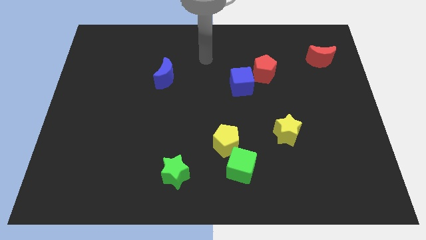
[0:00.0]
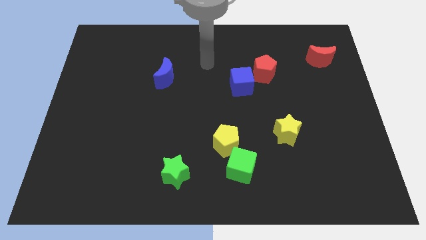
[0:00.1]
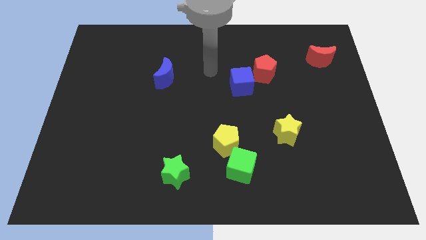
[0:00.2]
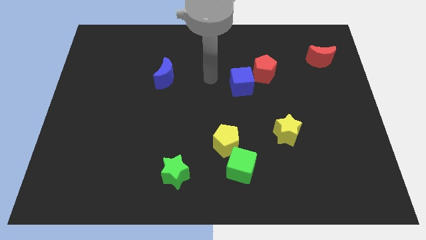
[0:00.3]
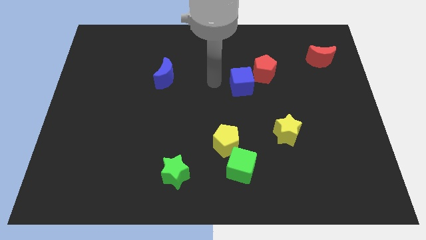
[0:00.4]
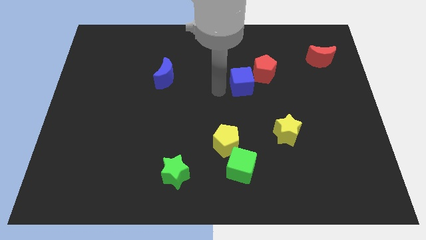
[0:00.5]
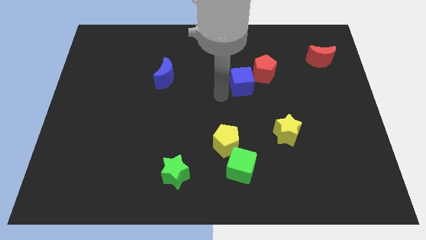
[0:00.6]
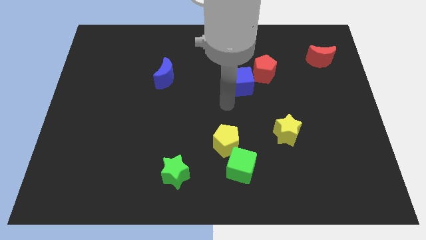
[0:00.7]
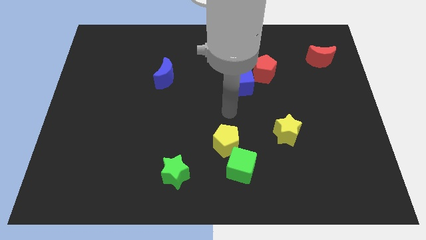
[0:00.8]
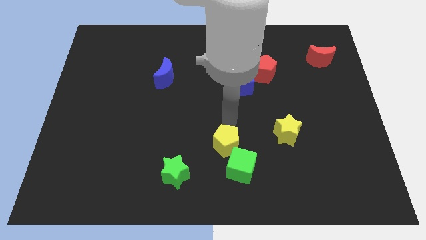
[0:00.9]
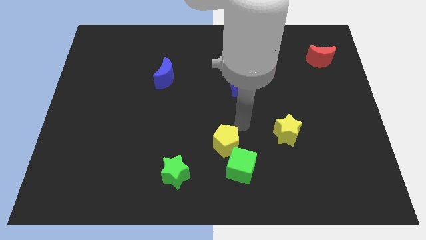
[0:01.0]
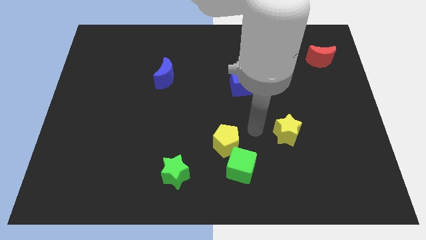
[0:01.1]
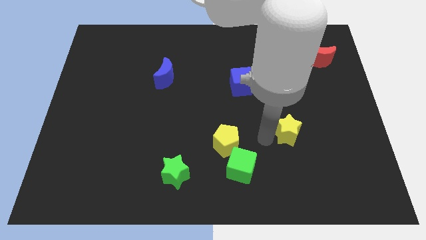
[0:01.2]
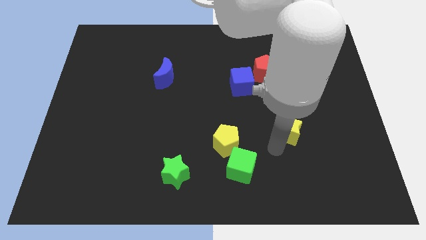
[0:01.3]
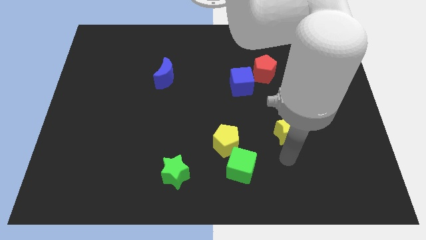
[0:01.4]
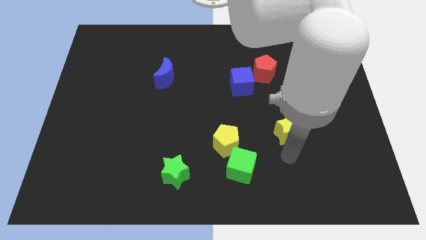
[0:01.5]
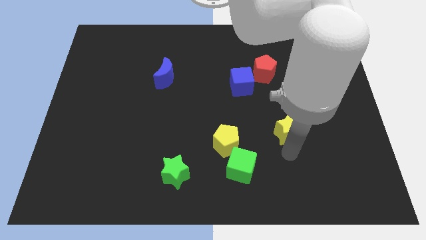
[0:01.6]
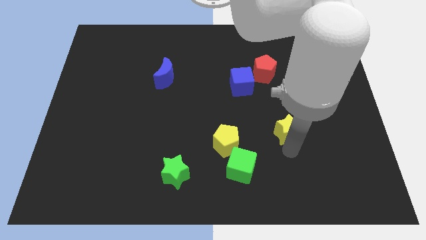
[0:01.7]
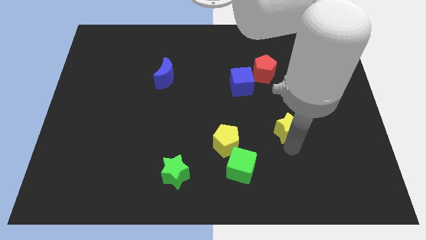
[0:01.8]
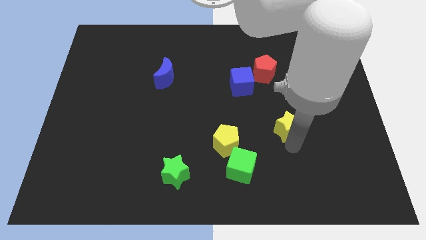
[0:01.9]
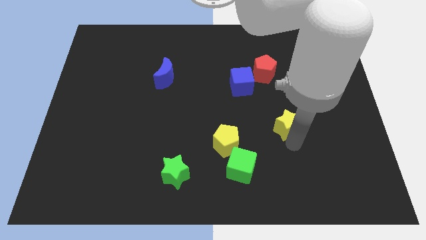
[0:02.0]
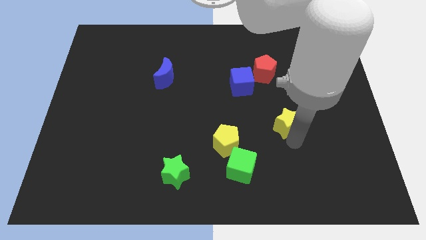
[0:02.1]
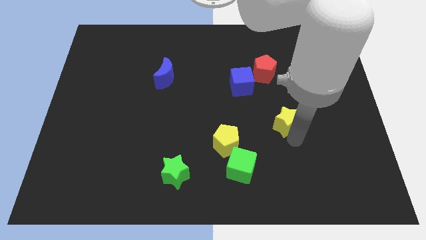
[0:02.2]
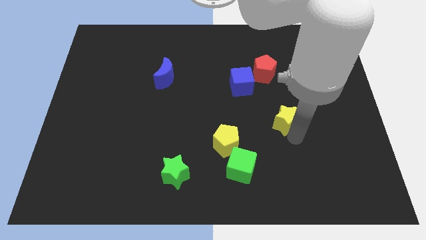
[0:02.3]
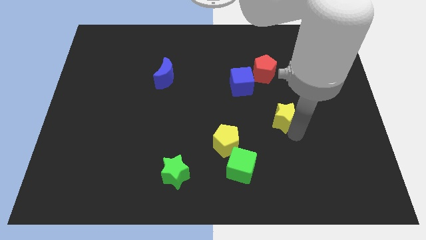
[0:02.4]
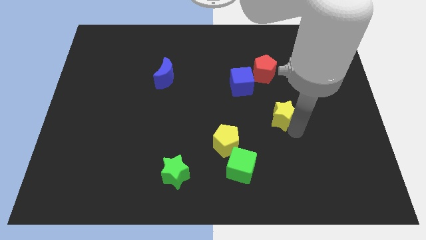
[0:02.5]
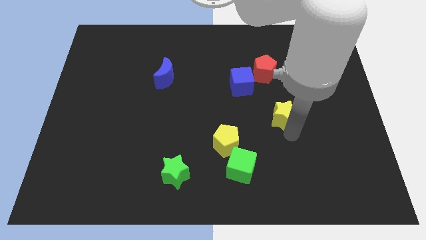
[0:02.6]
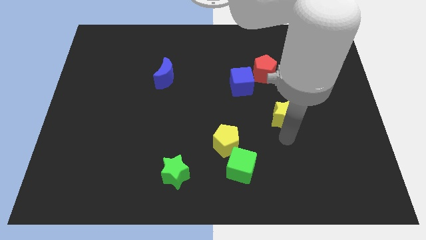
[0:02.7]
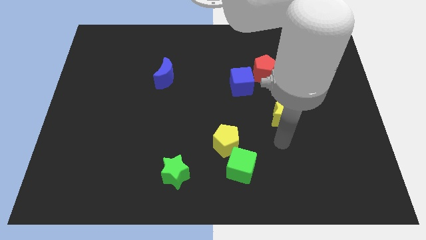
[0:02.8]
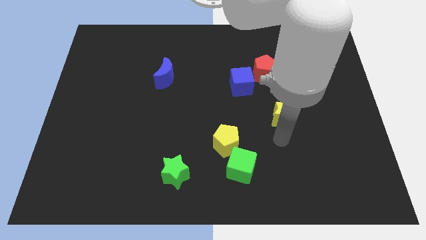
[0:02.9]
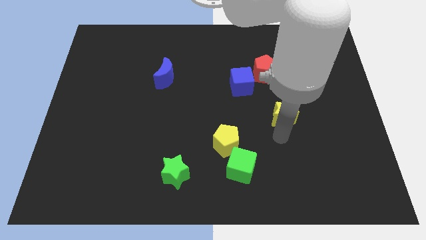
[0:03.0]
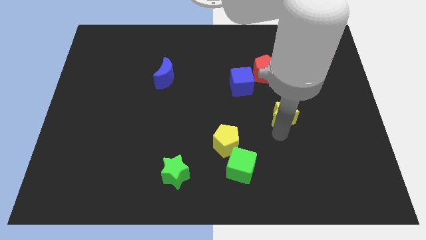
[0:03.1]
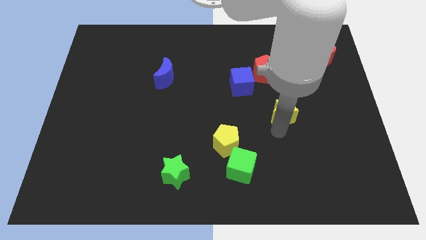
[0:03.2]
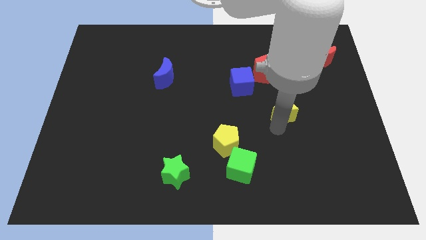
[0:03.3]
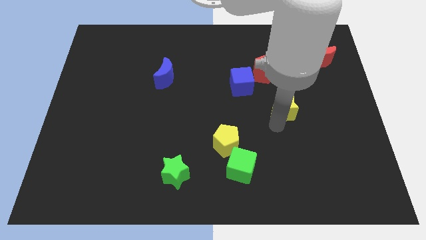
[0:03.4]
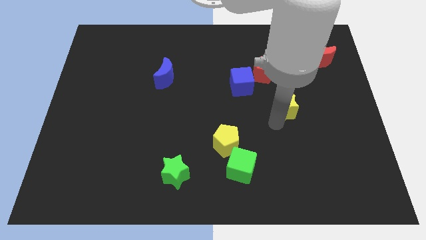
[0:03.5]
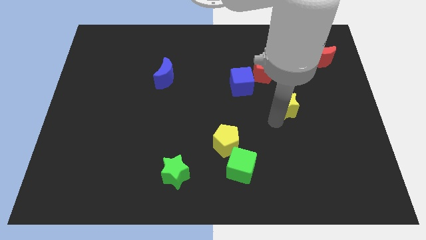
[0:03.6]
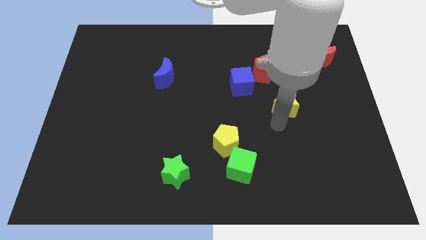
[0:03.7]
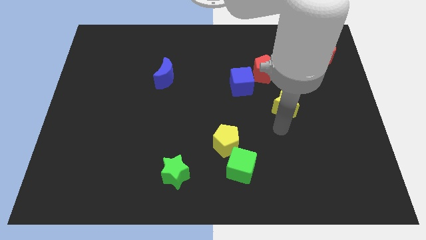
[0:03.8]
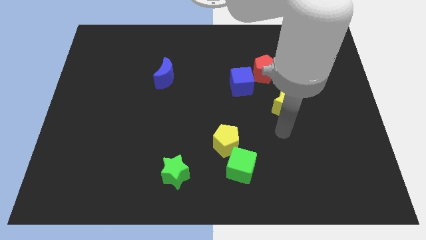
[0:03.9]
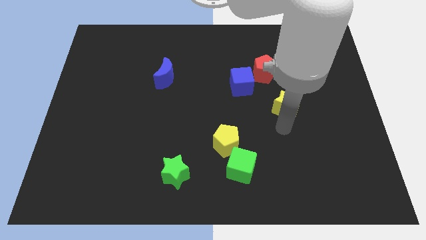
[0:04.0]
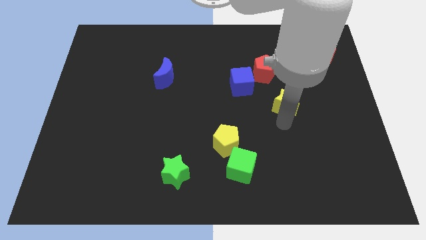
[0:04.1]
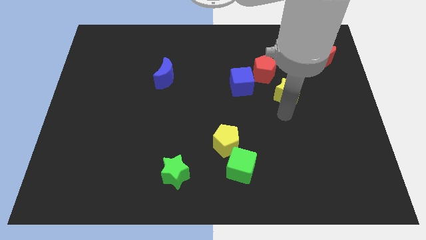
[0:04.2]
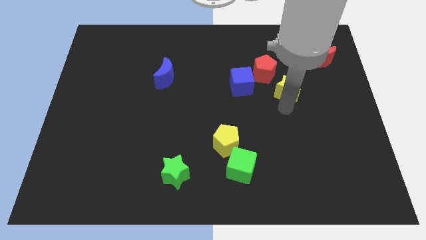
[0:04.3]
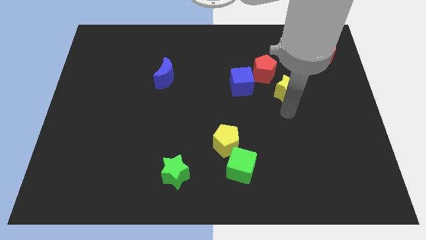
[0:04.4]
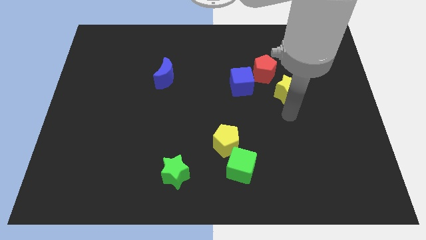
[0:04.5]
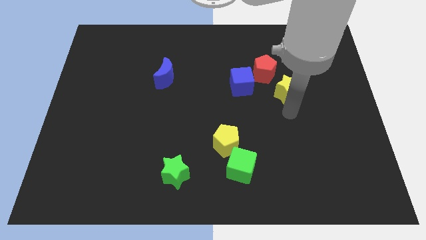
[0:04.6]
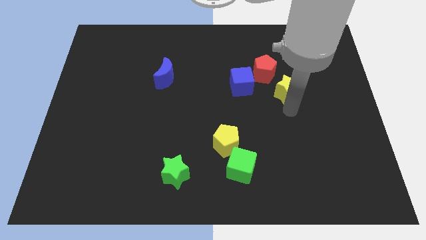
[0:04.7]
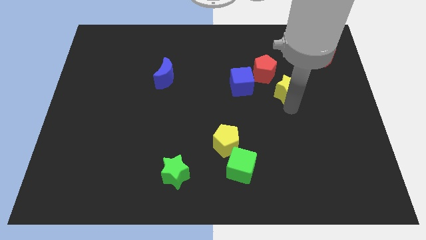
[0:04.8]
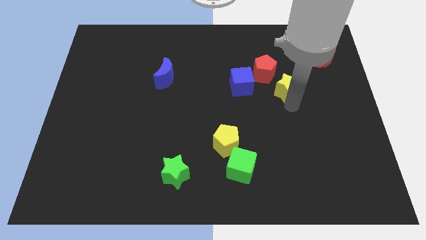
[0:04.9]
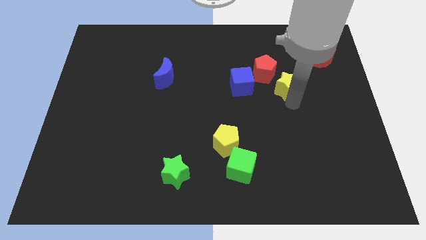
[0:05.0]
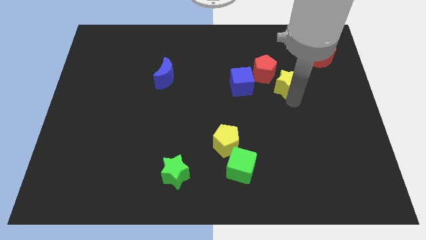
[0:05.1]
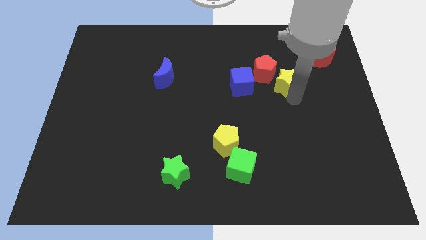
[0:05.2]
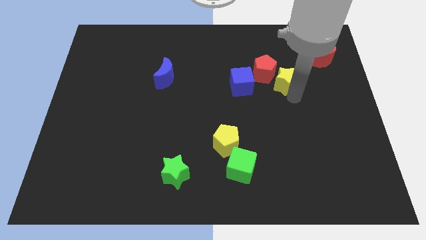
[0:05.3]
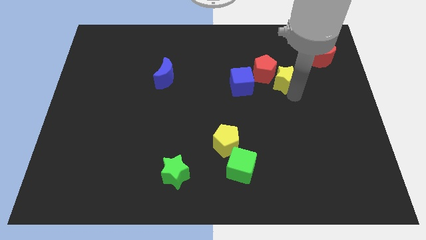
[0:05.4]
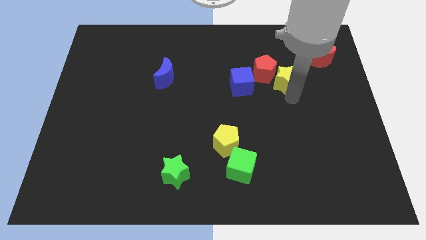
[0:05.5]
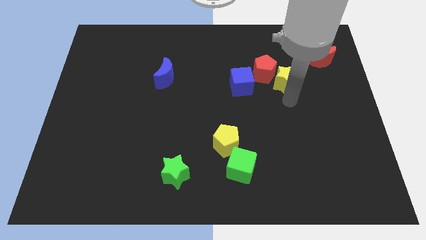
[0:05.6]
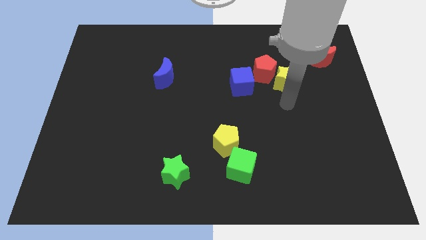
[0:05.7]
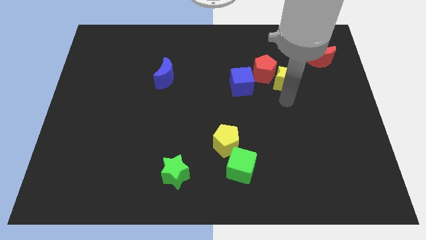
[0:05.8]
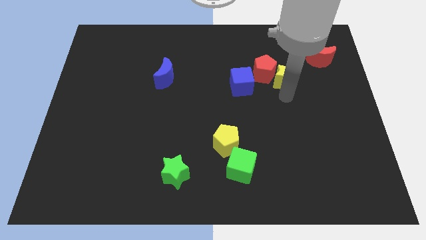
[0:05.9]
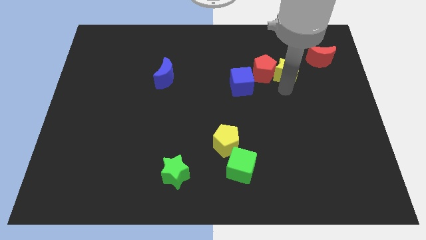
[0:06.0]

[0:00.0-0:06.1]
move the yellow star to the top right side of the red pentagon

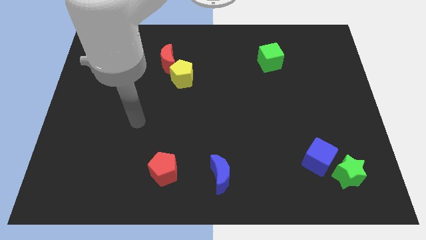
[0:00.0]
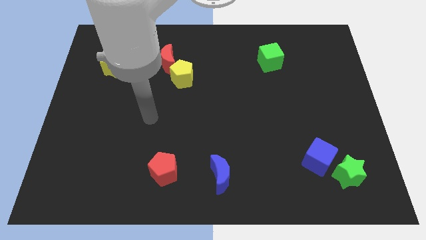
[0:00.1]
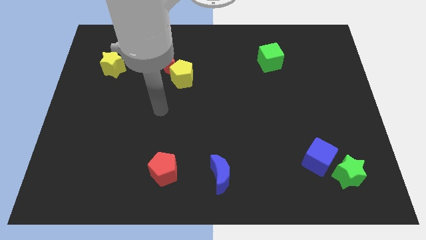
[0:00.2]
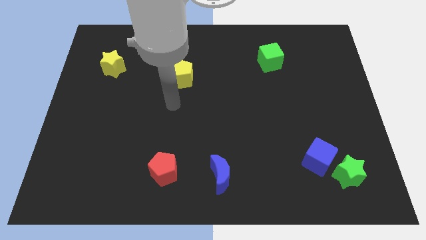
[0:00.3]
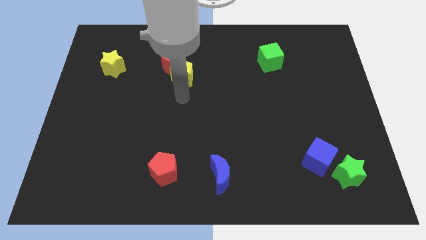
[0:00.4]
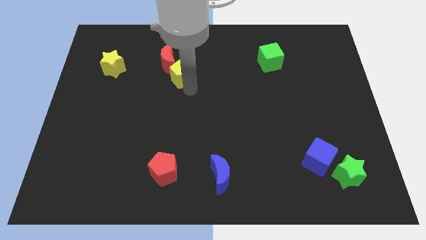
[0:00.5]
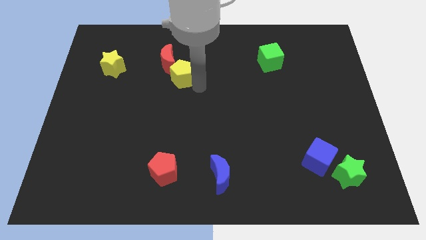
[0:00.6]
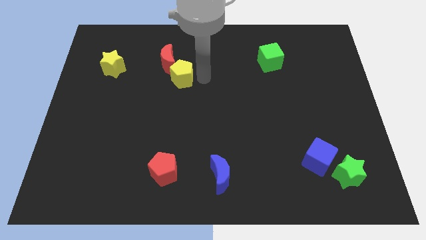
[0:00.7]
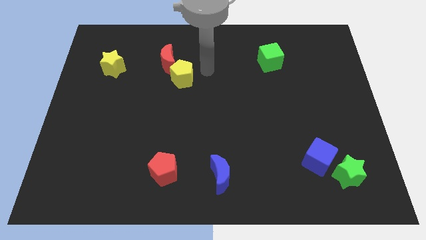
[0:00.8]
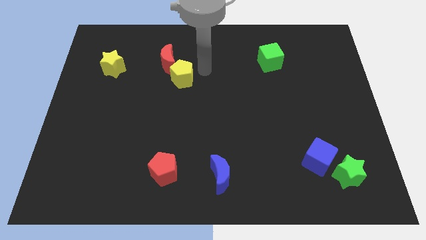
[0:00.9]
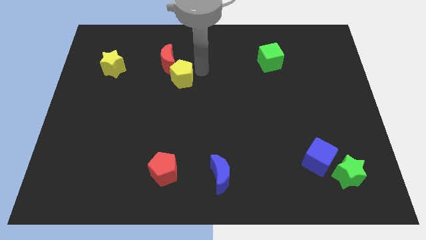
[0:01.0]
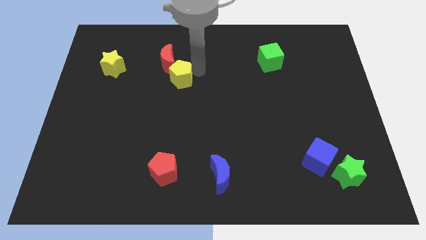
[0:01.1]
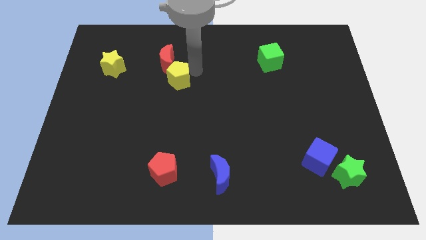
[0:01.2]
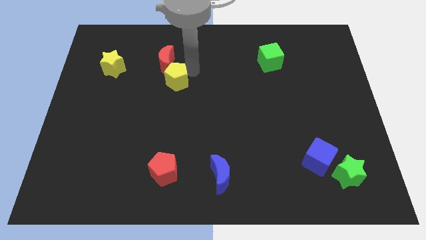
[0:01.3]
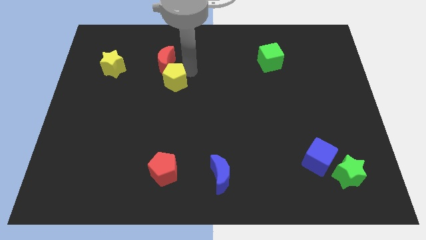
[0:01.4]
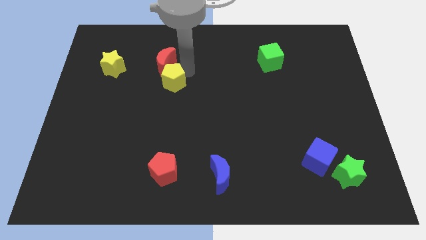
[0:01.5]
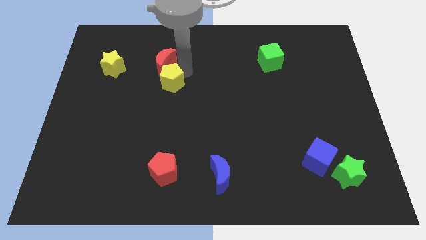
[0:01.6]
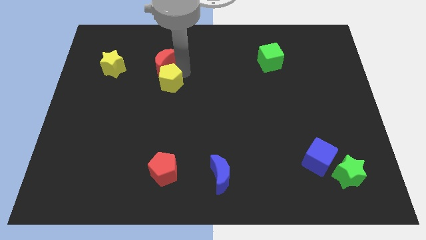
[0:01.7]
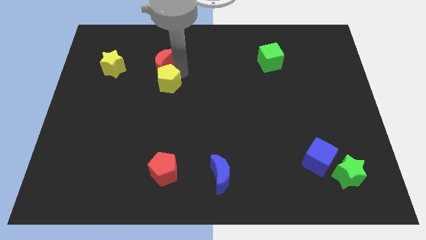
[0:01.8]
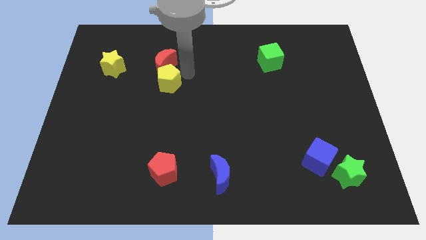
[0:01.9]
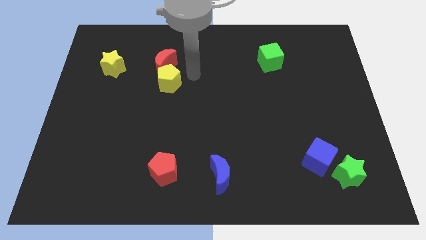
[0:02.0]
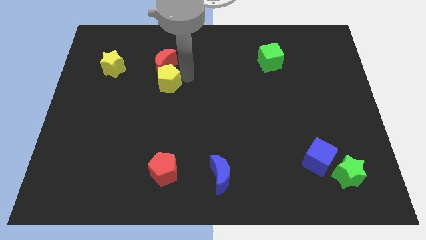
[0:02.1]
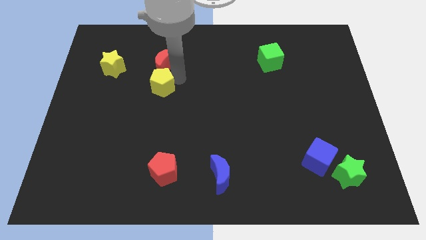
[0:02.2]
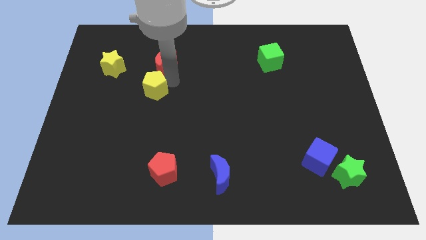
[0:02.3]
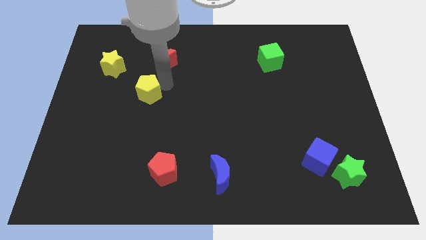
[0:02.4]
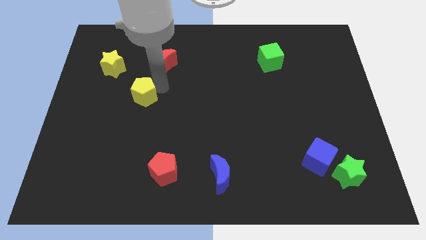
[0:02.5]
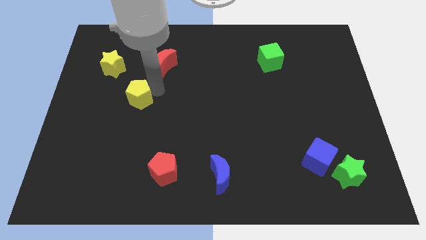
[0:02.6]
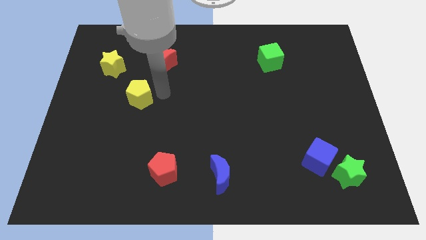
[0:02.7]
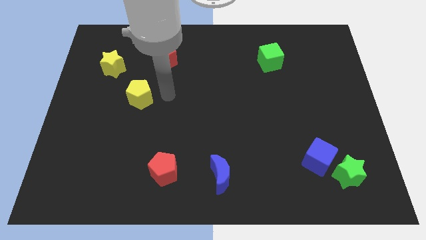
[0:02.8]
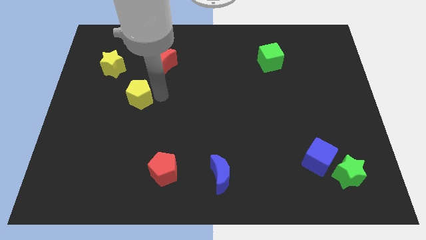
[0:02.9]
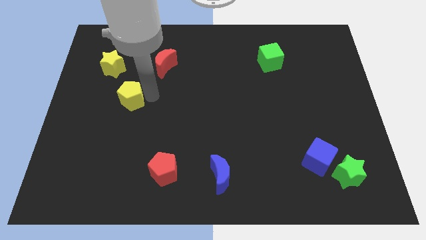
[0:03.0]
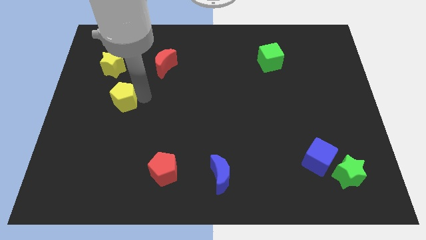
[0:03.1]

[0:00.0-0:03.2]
slide the yellow pentagon to the bottom side of the yellow star
